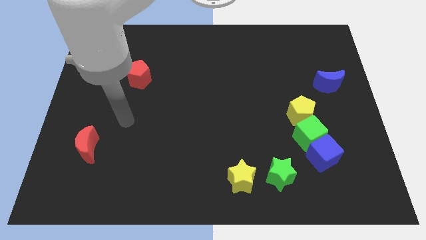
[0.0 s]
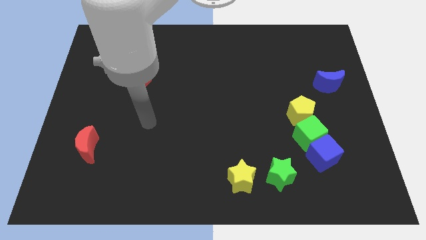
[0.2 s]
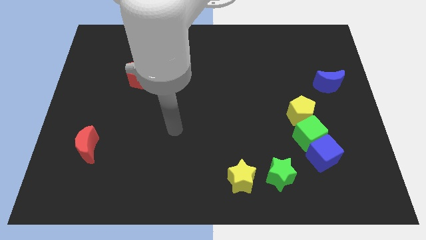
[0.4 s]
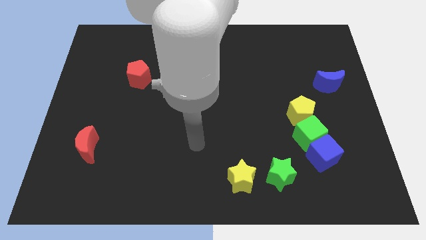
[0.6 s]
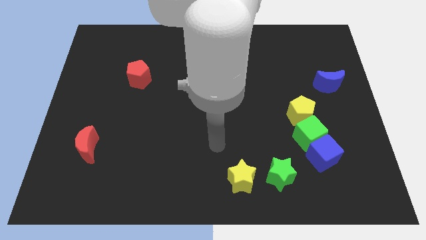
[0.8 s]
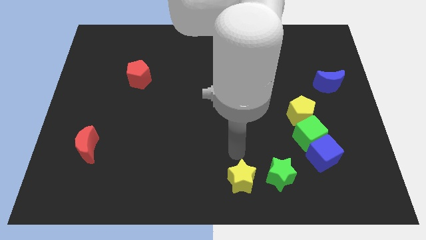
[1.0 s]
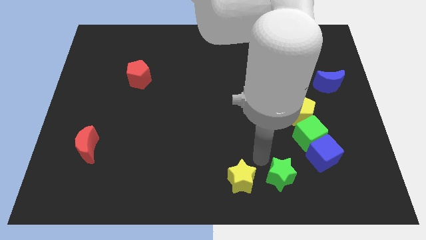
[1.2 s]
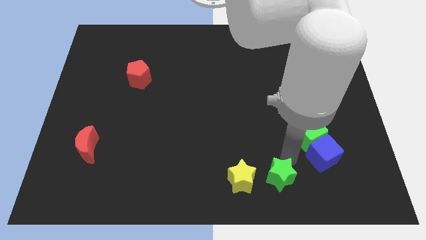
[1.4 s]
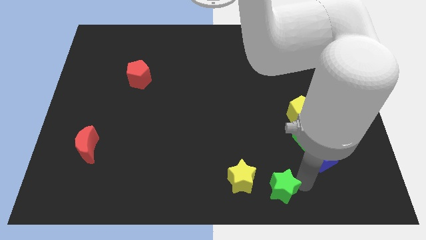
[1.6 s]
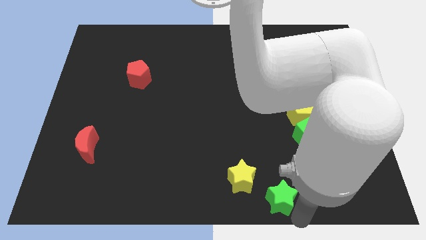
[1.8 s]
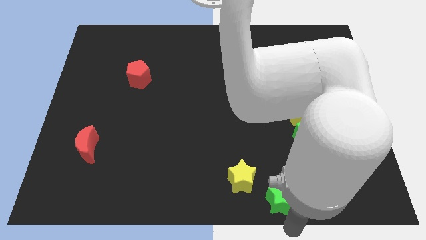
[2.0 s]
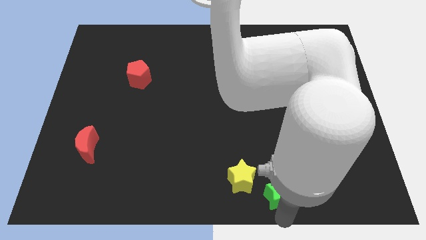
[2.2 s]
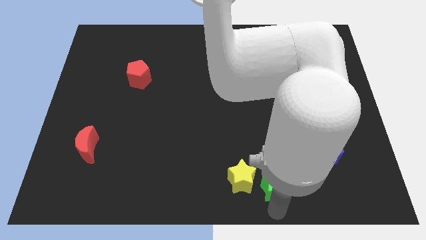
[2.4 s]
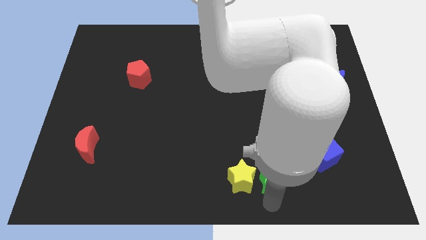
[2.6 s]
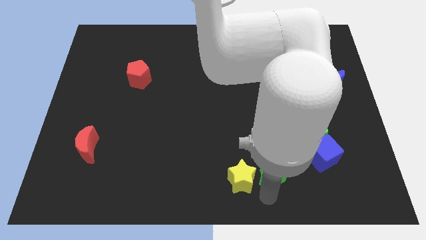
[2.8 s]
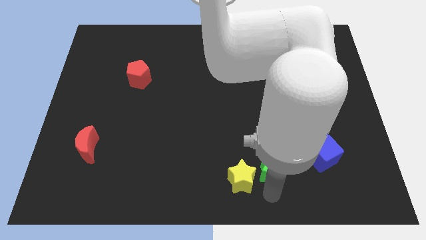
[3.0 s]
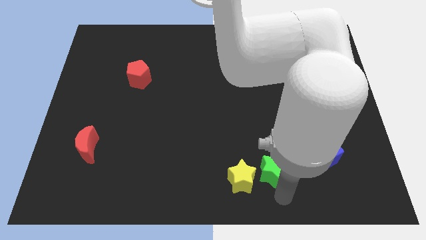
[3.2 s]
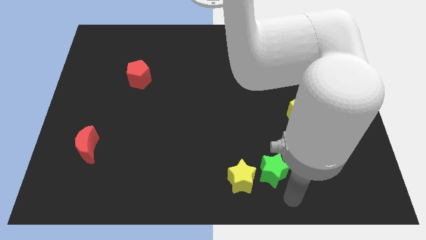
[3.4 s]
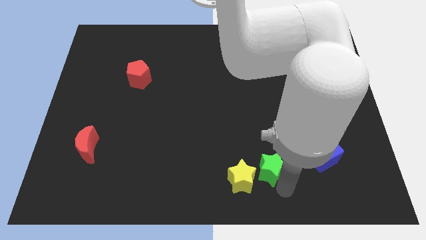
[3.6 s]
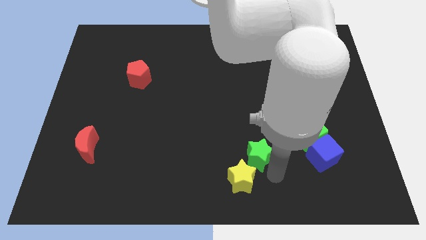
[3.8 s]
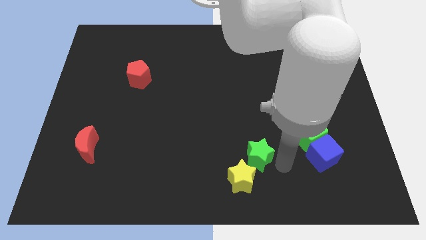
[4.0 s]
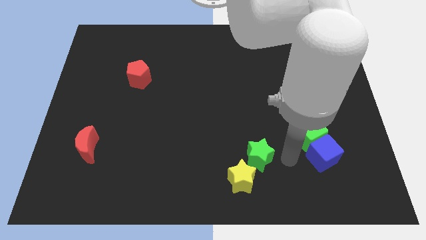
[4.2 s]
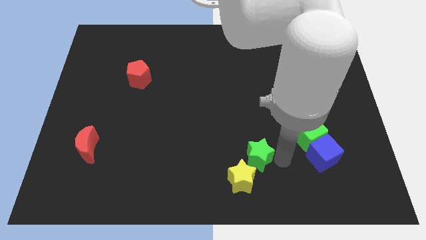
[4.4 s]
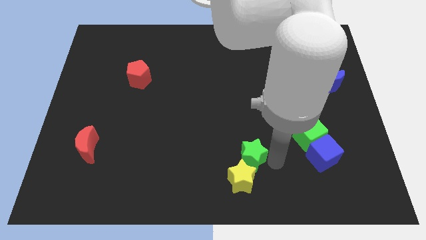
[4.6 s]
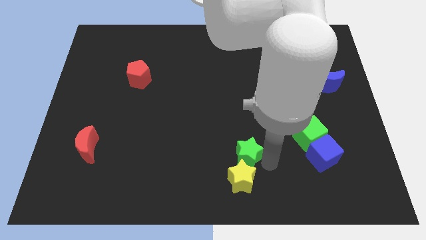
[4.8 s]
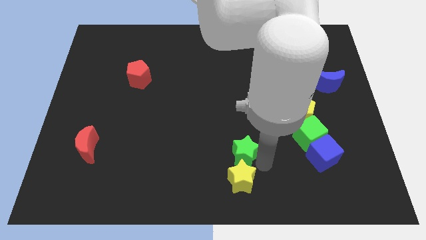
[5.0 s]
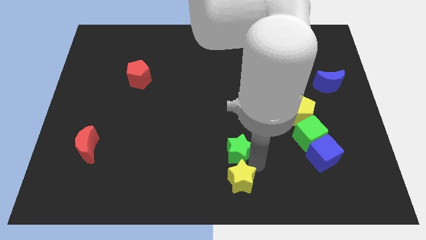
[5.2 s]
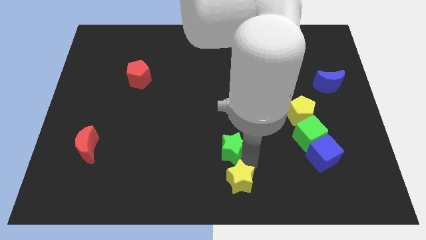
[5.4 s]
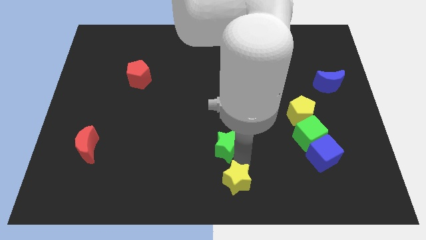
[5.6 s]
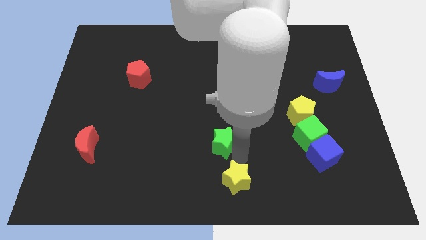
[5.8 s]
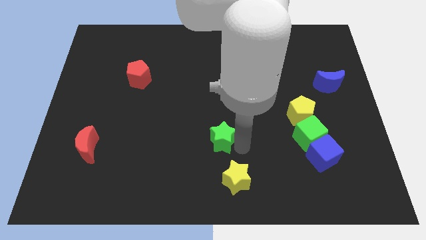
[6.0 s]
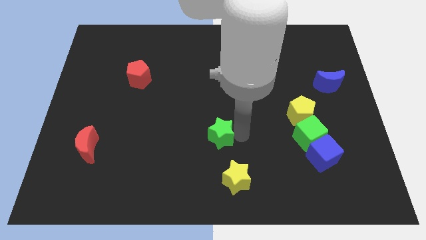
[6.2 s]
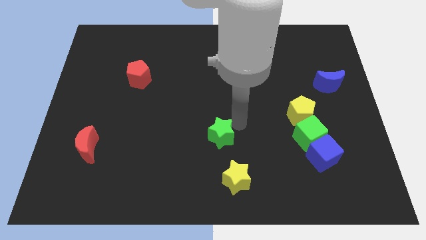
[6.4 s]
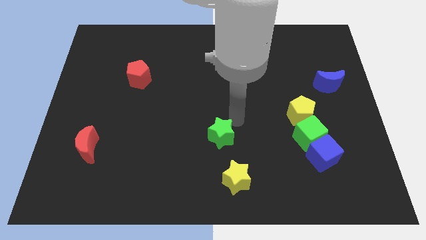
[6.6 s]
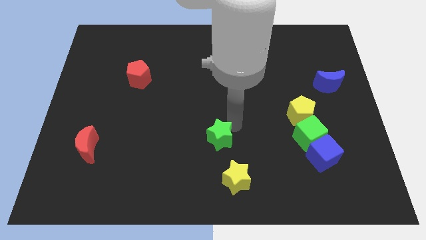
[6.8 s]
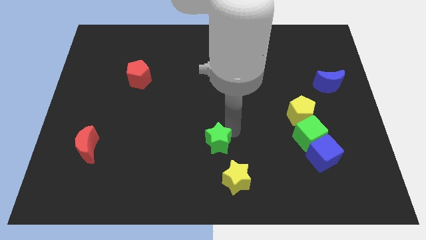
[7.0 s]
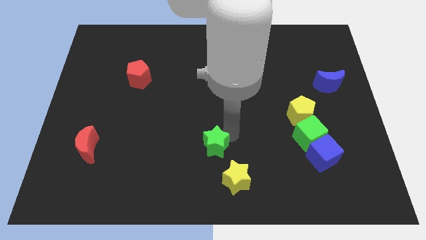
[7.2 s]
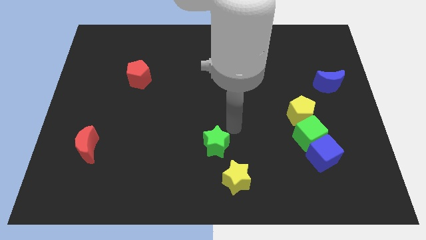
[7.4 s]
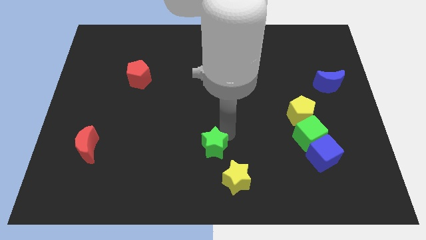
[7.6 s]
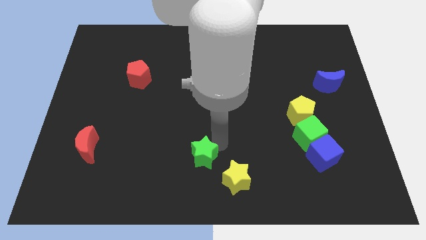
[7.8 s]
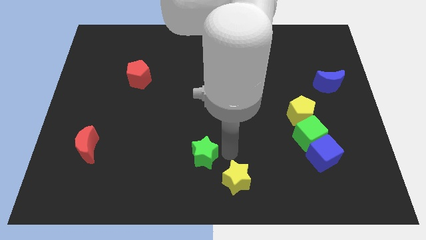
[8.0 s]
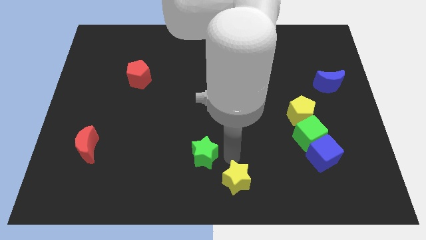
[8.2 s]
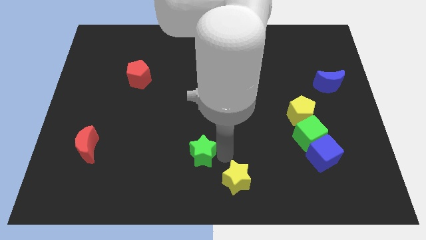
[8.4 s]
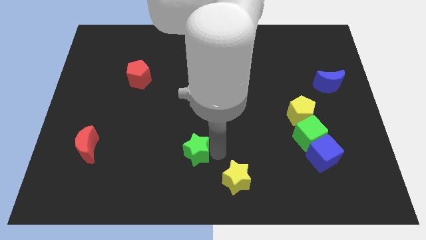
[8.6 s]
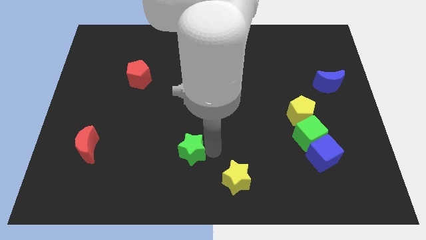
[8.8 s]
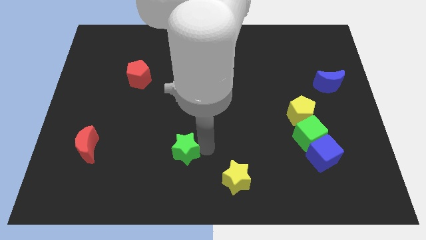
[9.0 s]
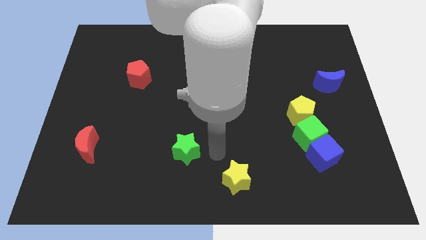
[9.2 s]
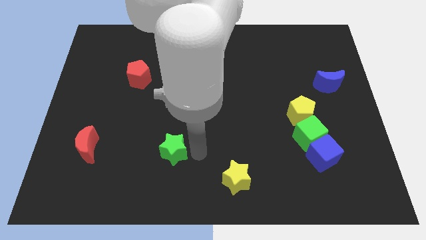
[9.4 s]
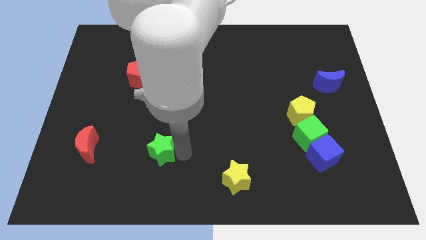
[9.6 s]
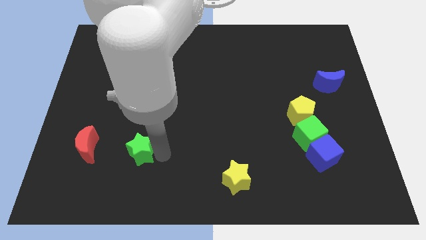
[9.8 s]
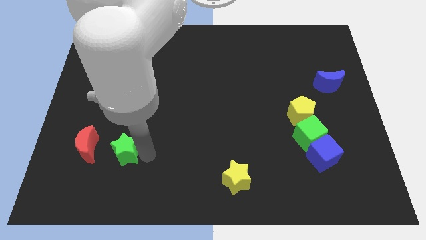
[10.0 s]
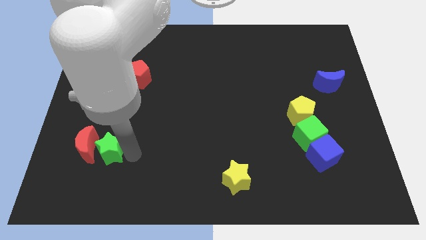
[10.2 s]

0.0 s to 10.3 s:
put the green star close to the red moon

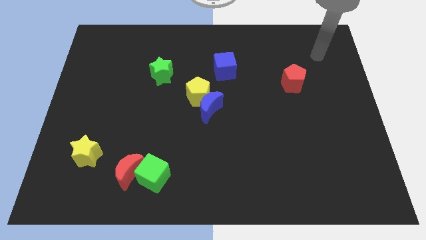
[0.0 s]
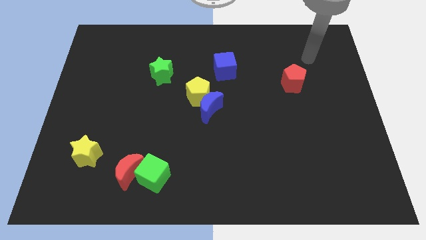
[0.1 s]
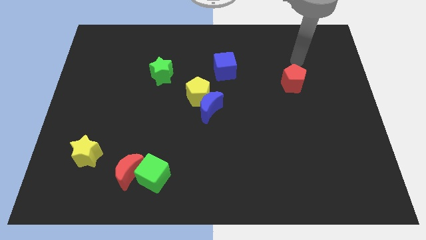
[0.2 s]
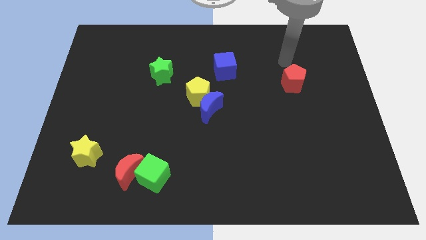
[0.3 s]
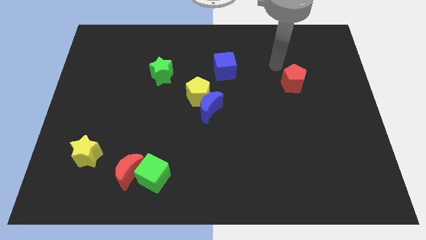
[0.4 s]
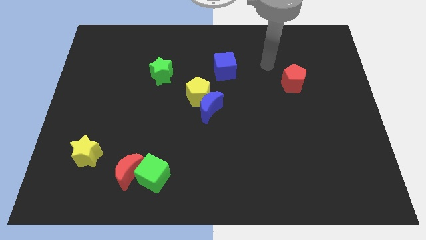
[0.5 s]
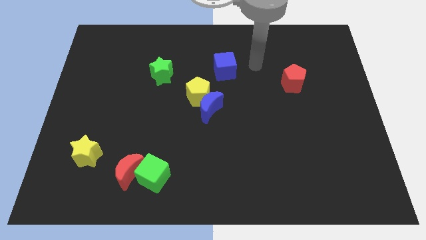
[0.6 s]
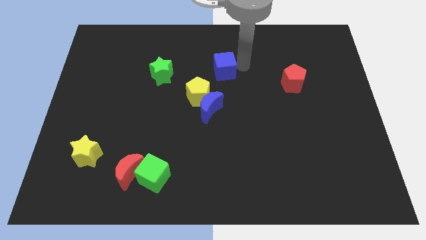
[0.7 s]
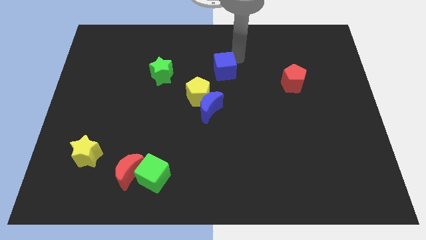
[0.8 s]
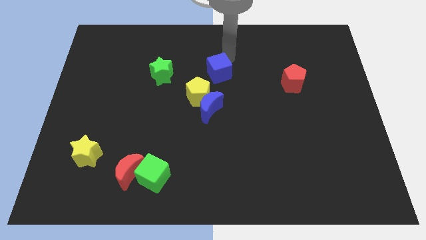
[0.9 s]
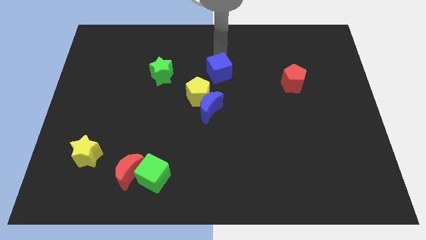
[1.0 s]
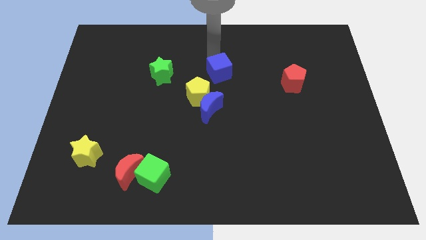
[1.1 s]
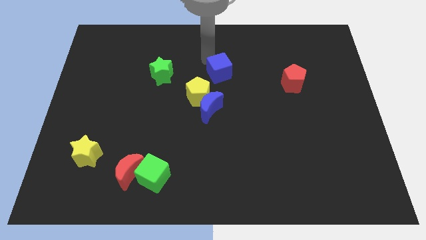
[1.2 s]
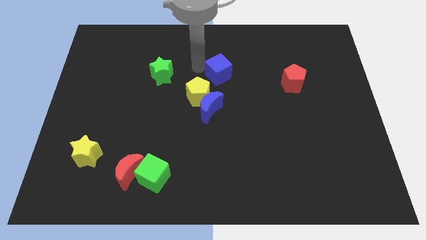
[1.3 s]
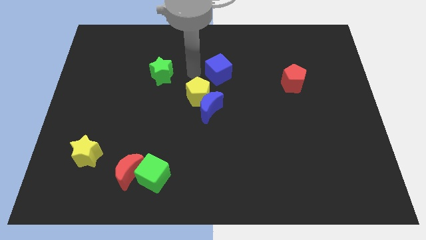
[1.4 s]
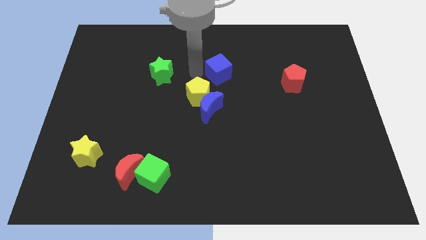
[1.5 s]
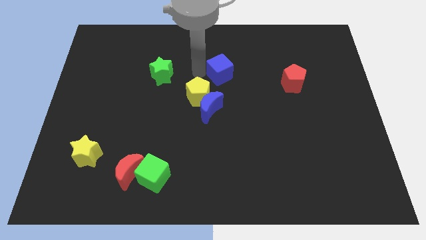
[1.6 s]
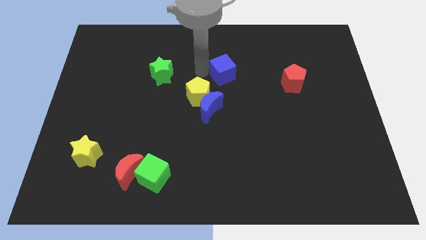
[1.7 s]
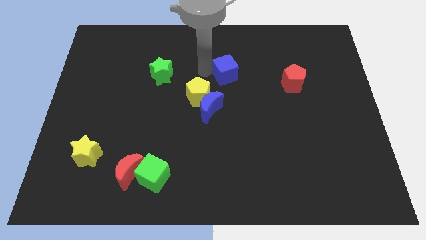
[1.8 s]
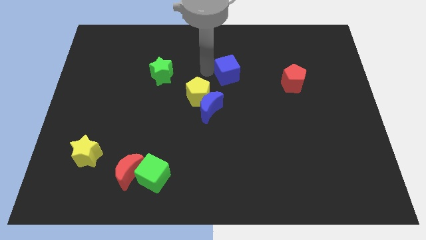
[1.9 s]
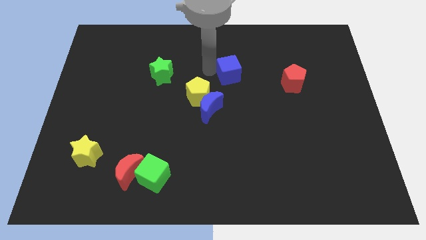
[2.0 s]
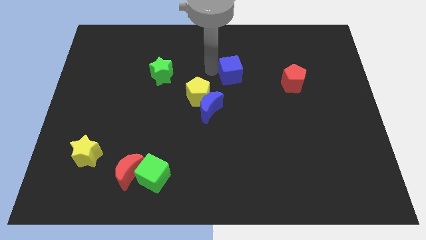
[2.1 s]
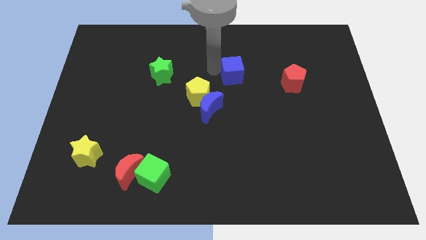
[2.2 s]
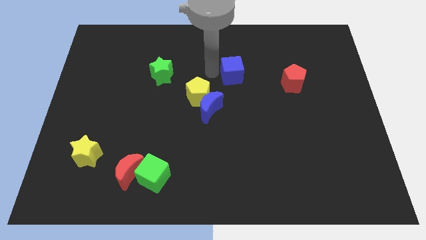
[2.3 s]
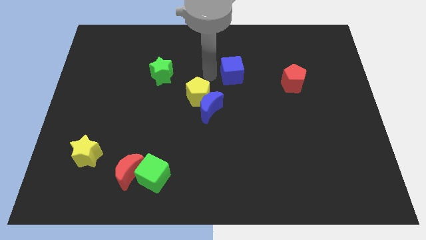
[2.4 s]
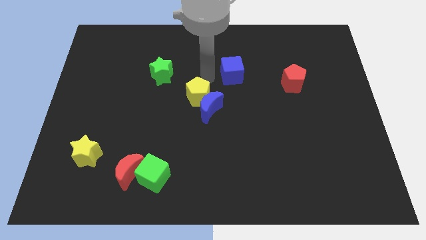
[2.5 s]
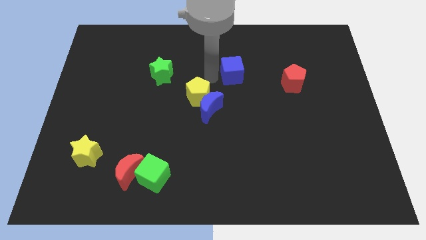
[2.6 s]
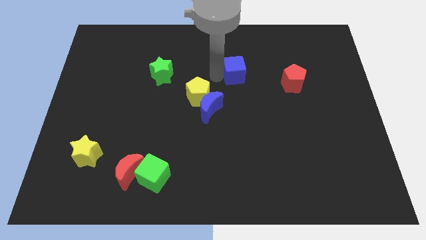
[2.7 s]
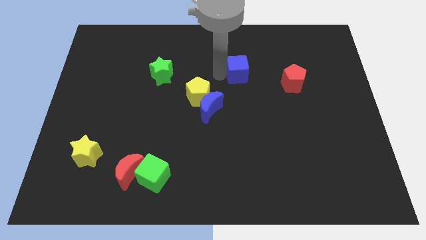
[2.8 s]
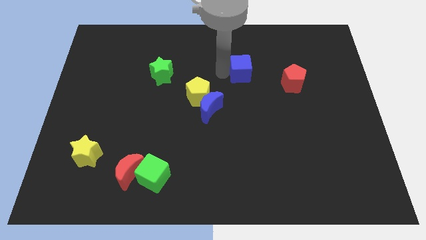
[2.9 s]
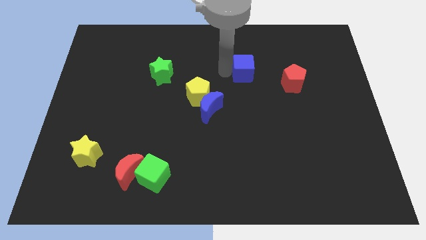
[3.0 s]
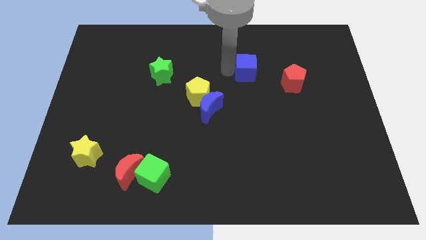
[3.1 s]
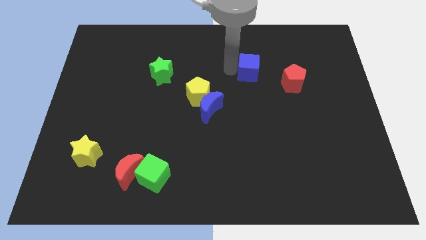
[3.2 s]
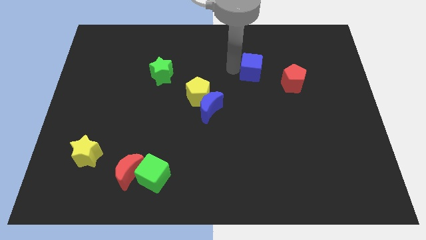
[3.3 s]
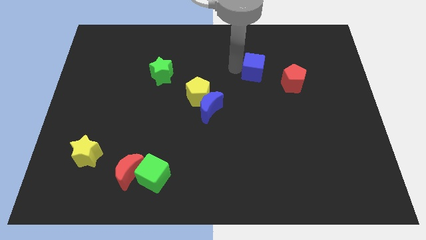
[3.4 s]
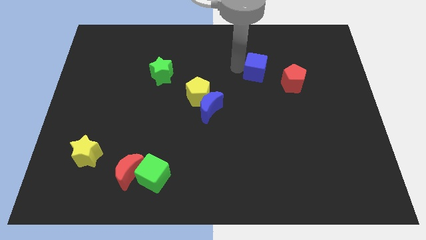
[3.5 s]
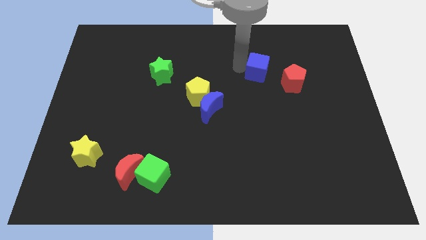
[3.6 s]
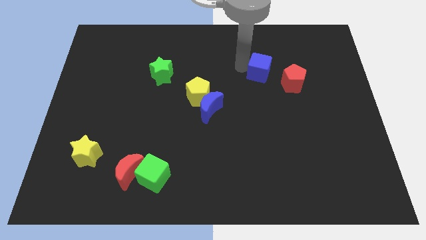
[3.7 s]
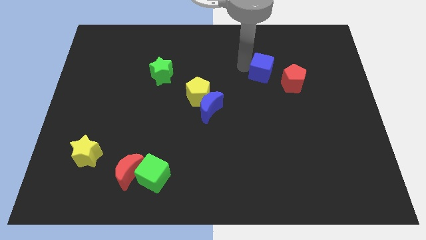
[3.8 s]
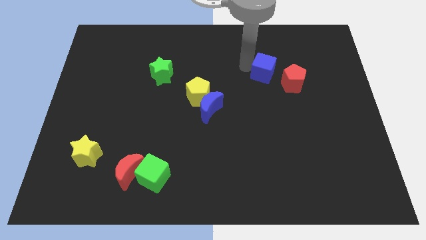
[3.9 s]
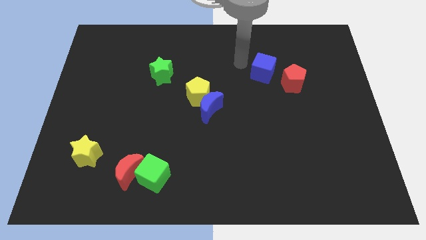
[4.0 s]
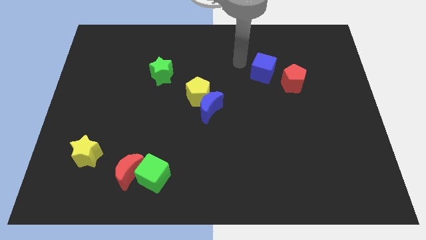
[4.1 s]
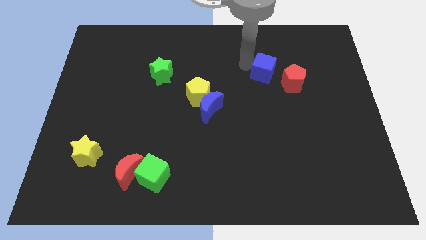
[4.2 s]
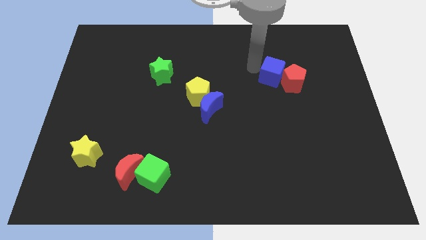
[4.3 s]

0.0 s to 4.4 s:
push the blue cube next to the red pentagon
